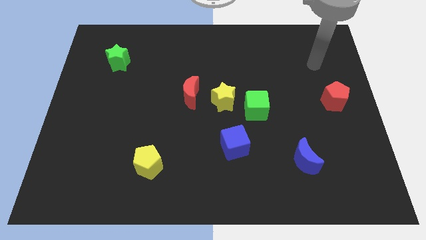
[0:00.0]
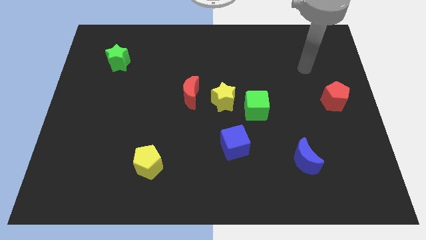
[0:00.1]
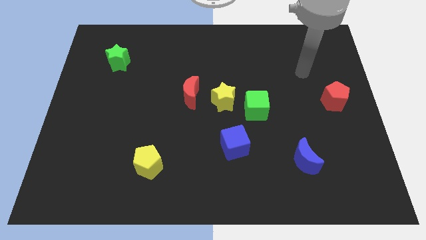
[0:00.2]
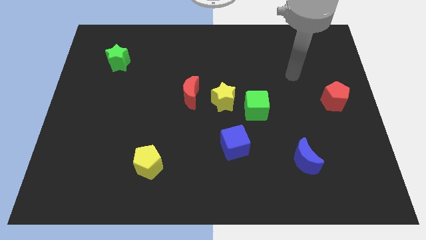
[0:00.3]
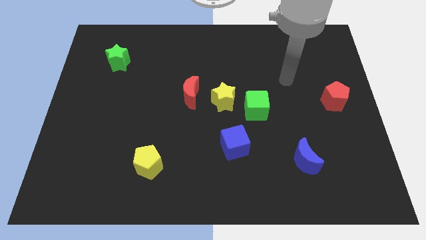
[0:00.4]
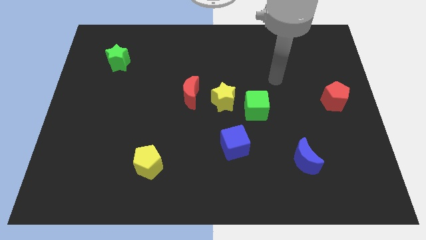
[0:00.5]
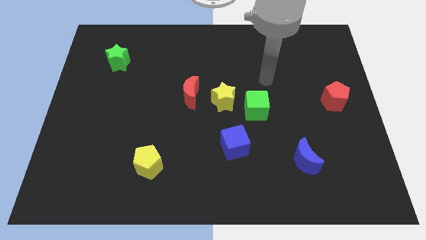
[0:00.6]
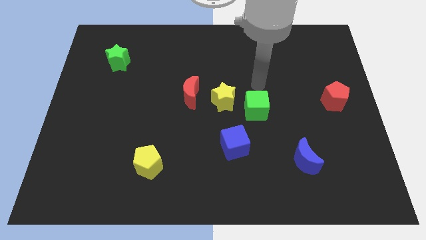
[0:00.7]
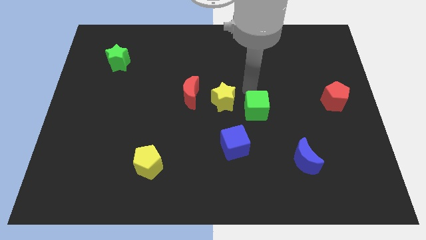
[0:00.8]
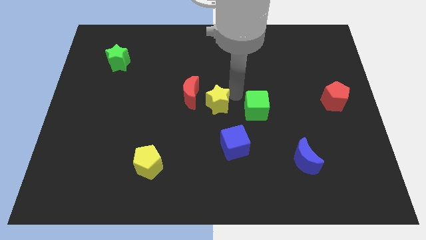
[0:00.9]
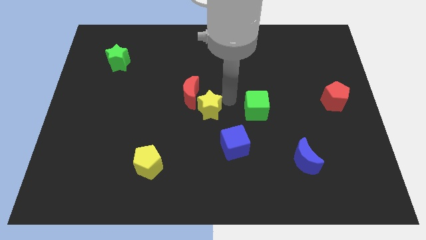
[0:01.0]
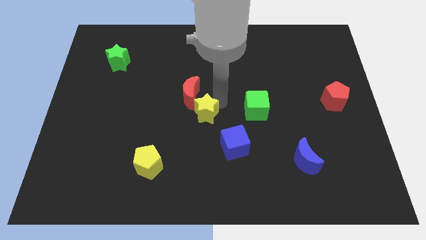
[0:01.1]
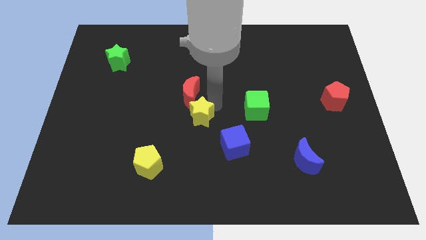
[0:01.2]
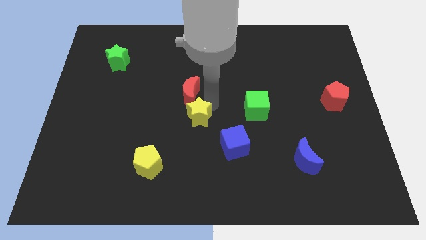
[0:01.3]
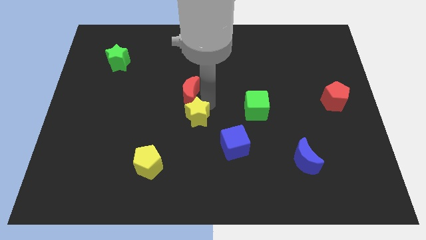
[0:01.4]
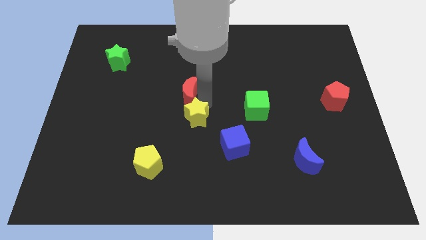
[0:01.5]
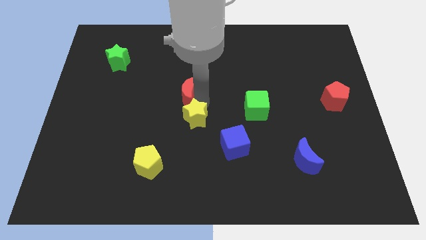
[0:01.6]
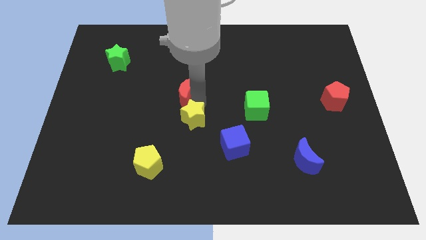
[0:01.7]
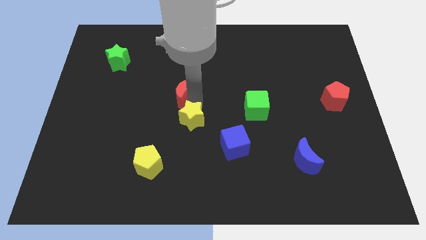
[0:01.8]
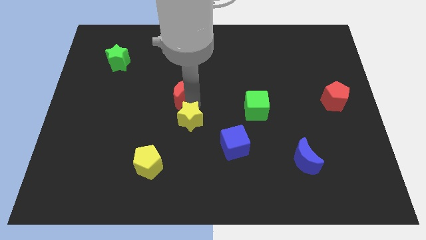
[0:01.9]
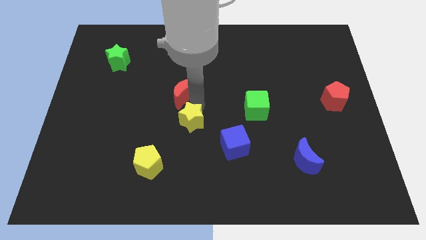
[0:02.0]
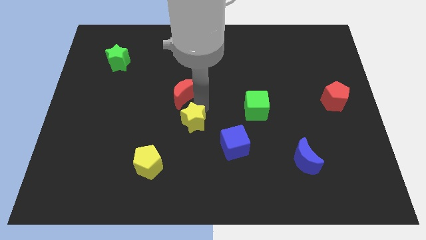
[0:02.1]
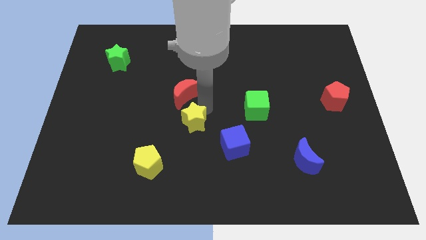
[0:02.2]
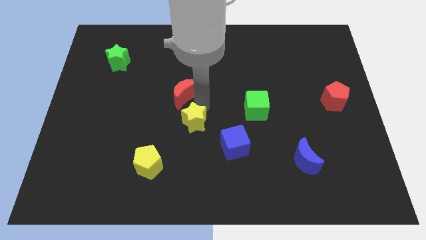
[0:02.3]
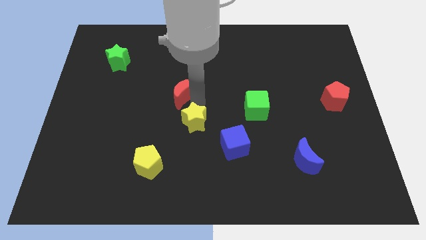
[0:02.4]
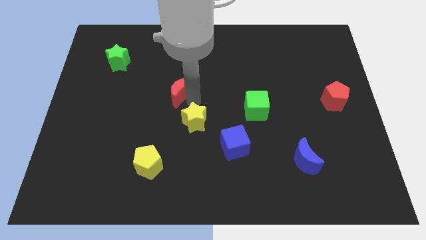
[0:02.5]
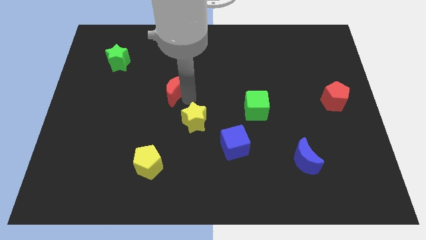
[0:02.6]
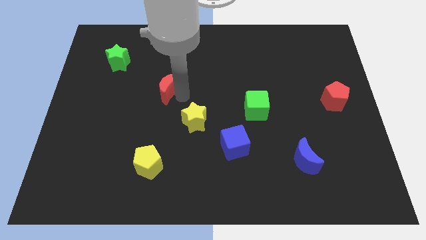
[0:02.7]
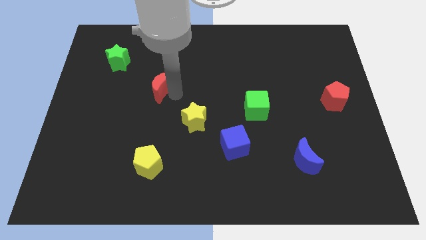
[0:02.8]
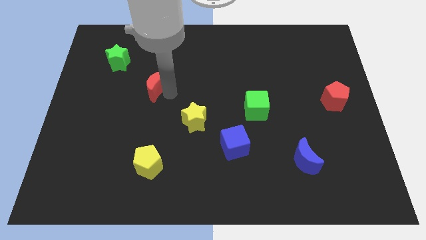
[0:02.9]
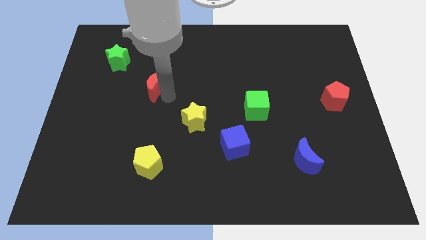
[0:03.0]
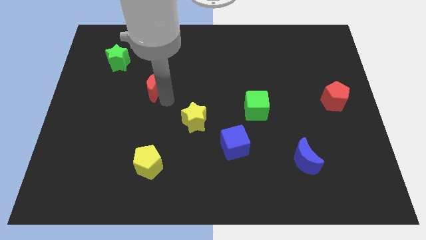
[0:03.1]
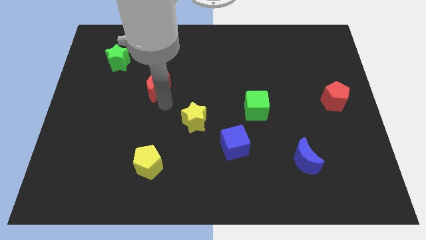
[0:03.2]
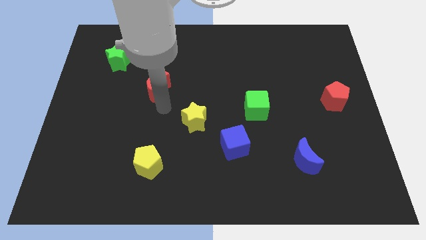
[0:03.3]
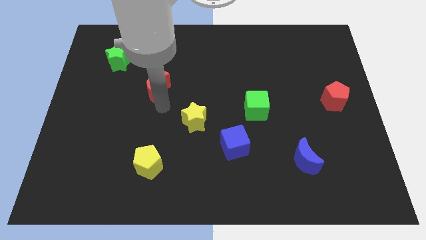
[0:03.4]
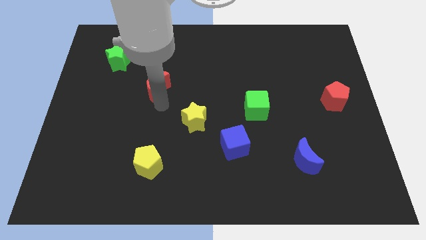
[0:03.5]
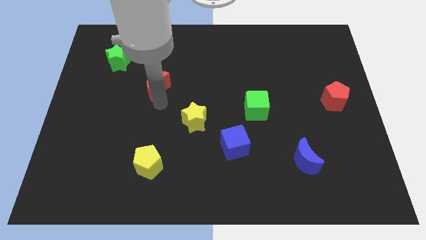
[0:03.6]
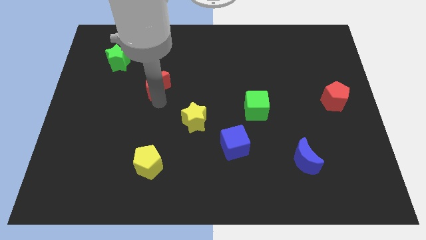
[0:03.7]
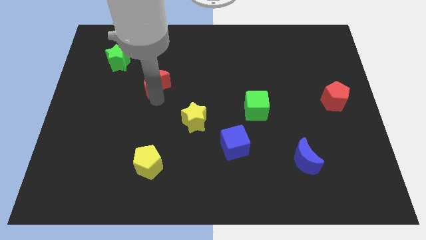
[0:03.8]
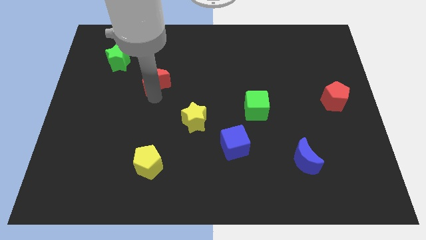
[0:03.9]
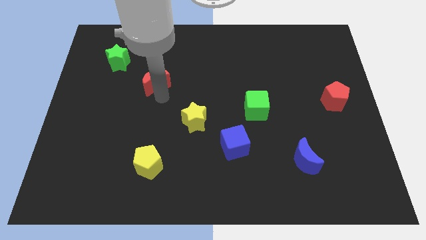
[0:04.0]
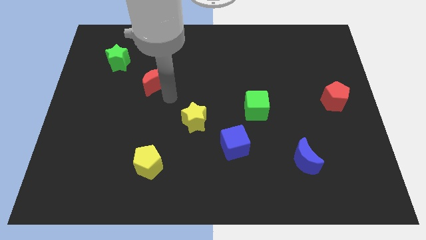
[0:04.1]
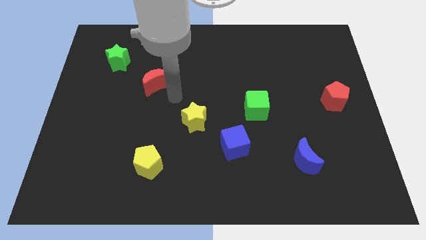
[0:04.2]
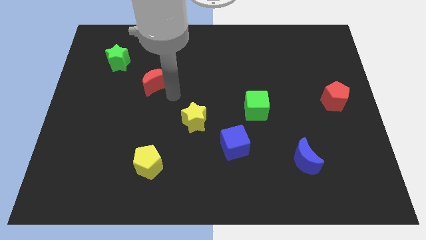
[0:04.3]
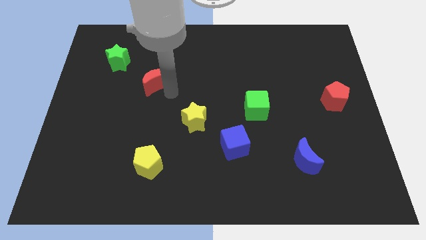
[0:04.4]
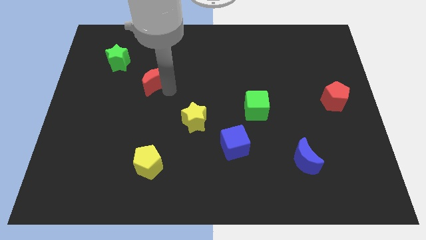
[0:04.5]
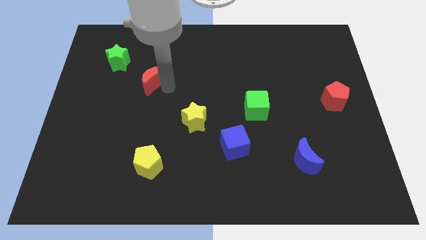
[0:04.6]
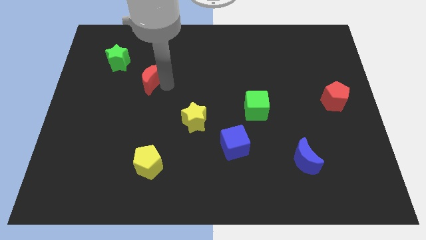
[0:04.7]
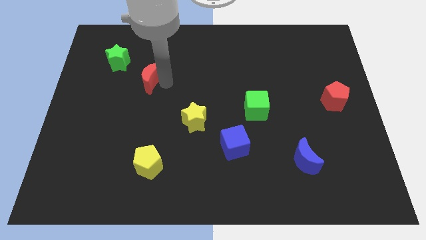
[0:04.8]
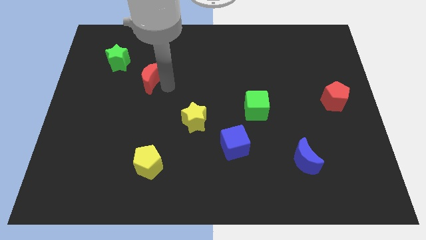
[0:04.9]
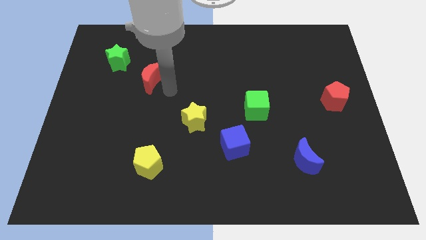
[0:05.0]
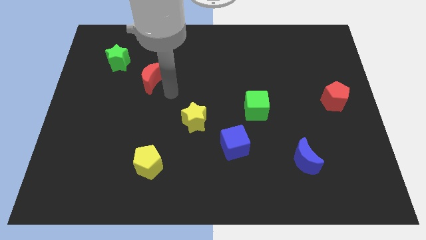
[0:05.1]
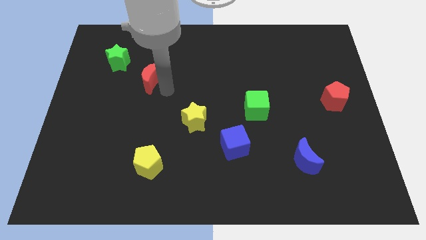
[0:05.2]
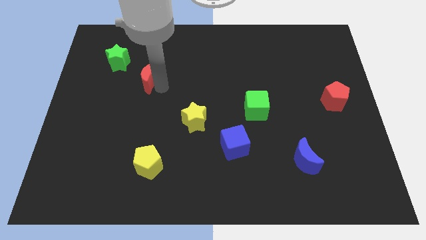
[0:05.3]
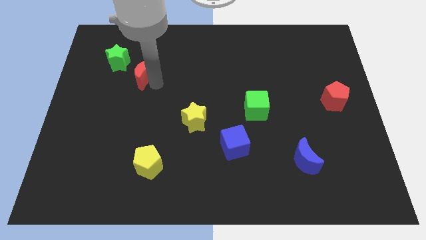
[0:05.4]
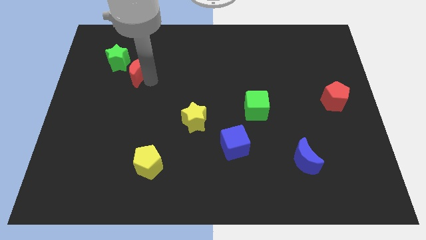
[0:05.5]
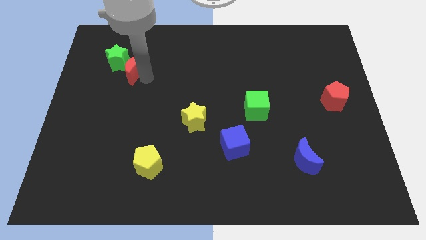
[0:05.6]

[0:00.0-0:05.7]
slide the red moon to the green star

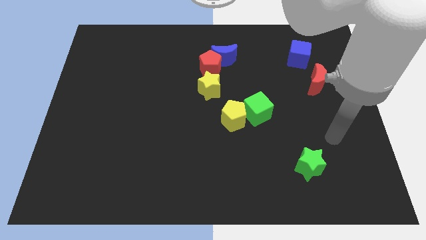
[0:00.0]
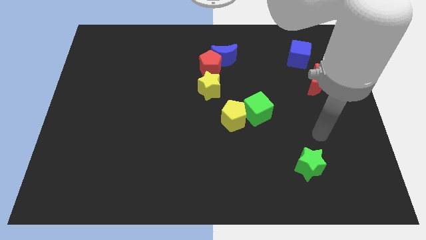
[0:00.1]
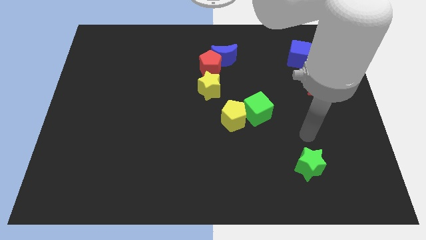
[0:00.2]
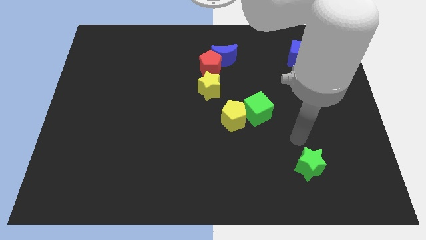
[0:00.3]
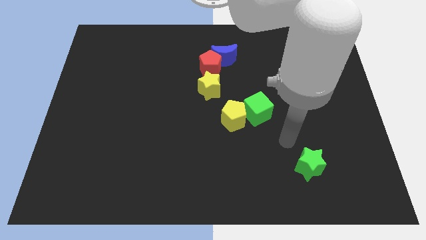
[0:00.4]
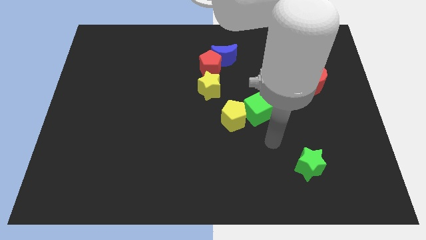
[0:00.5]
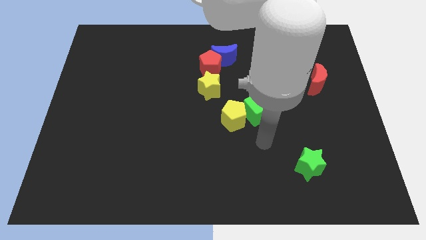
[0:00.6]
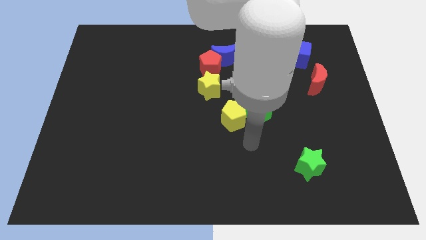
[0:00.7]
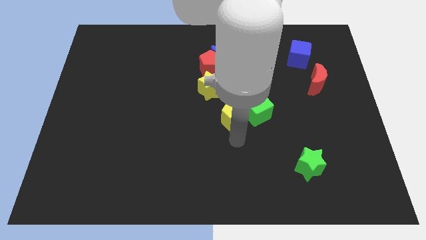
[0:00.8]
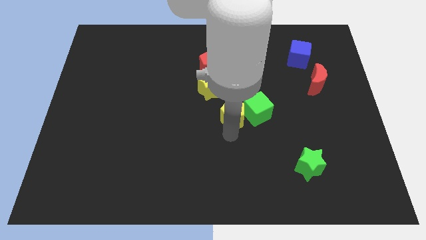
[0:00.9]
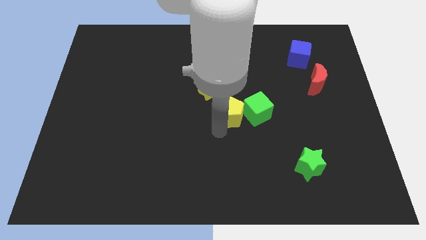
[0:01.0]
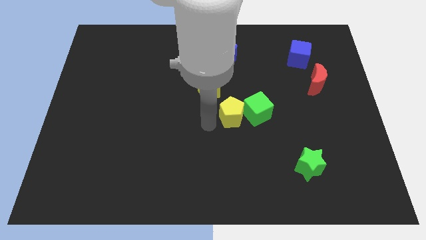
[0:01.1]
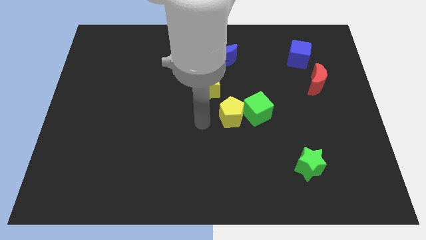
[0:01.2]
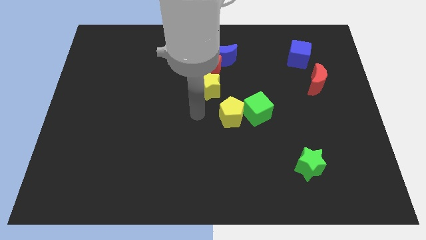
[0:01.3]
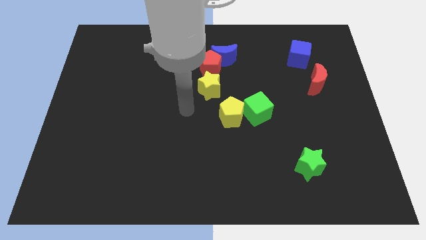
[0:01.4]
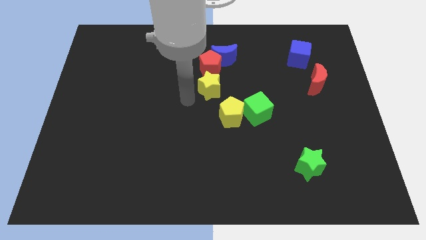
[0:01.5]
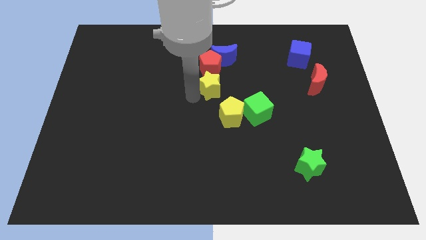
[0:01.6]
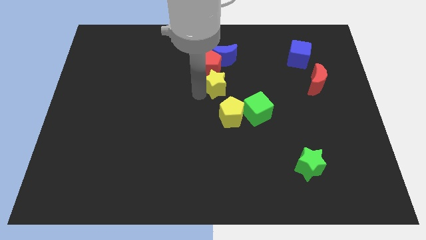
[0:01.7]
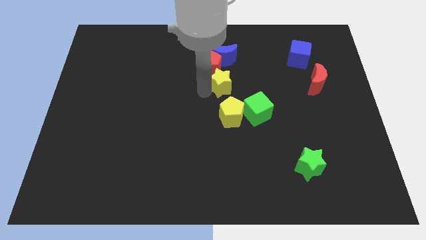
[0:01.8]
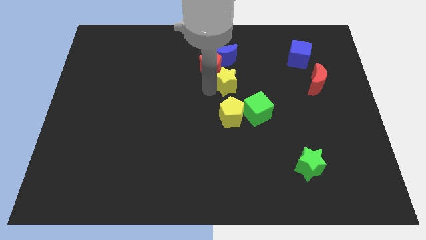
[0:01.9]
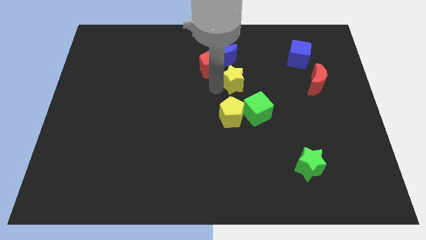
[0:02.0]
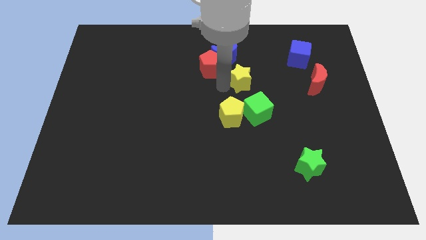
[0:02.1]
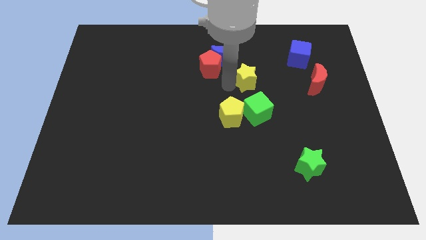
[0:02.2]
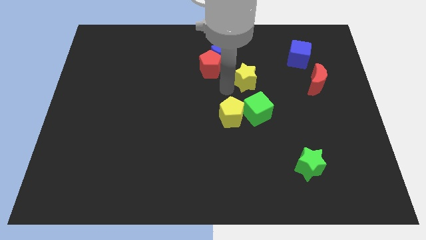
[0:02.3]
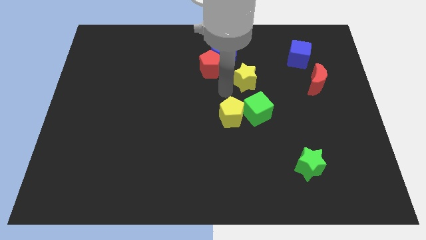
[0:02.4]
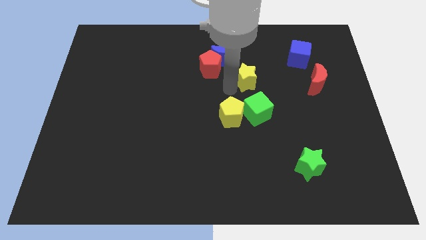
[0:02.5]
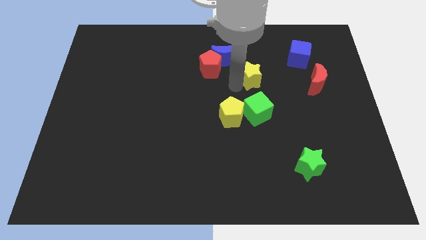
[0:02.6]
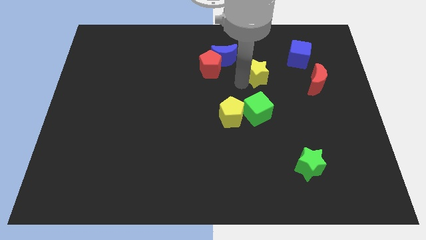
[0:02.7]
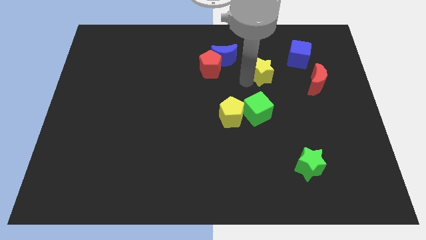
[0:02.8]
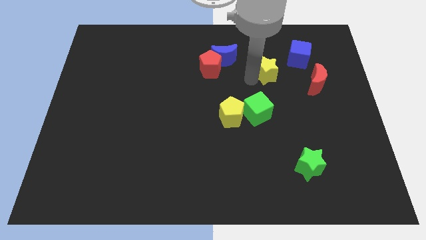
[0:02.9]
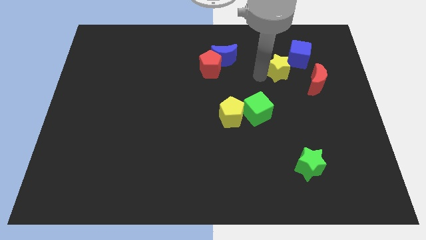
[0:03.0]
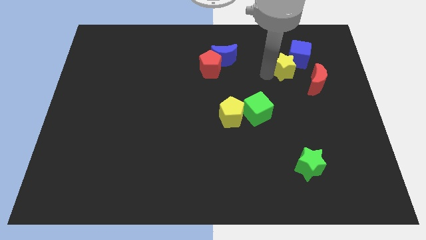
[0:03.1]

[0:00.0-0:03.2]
put the yellow star to the blue cube
